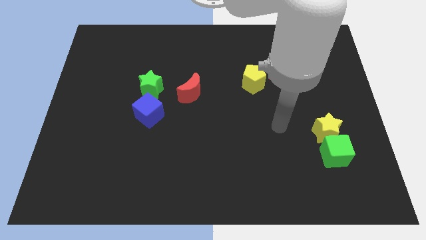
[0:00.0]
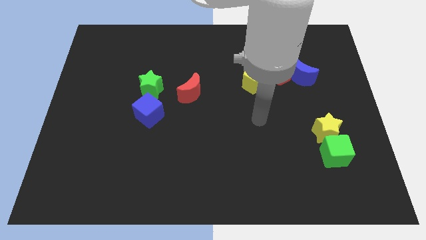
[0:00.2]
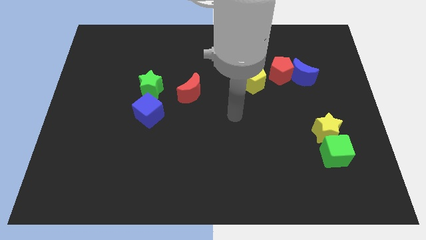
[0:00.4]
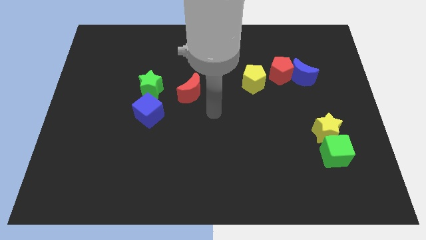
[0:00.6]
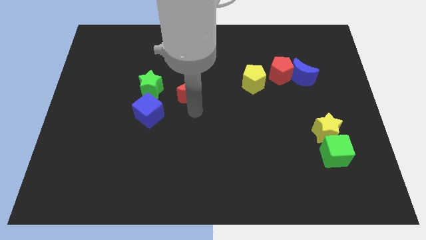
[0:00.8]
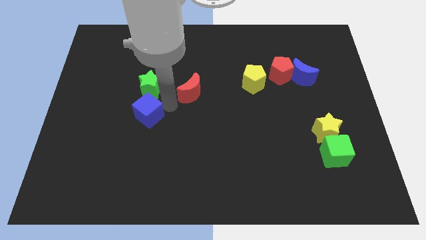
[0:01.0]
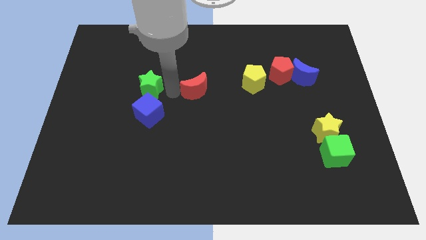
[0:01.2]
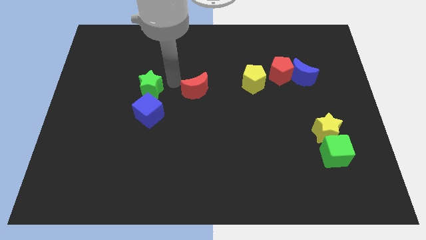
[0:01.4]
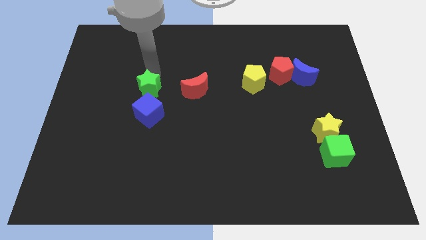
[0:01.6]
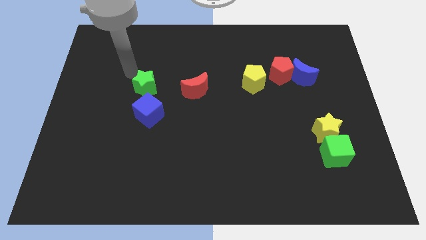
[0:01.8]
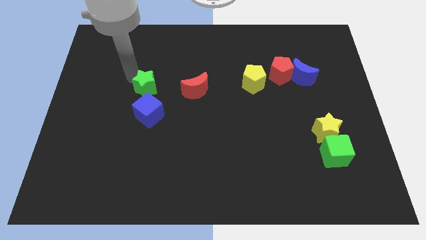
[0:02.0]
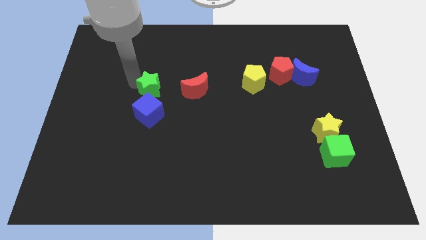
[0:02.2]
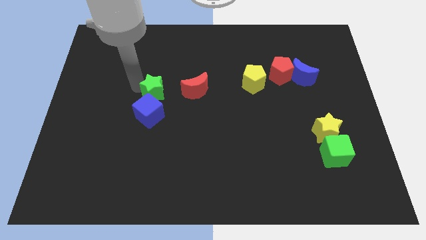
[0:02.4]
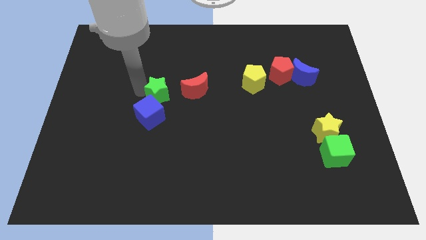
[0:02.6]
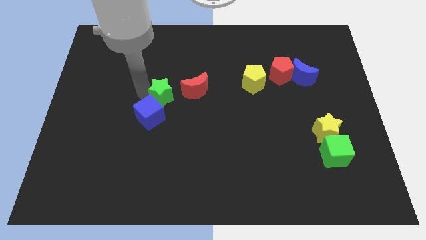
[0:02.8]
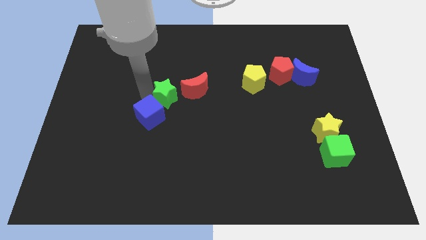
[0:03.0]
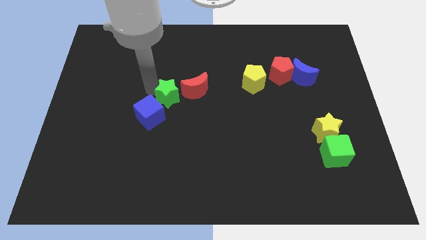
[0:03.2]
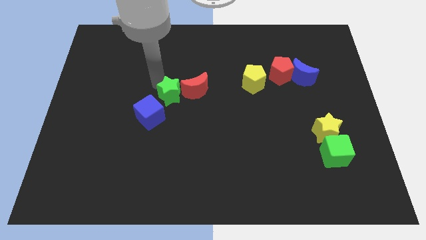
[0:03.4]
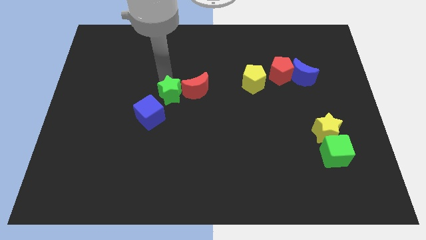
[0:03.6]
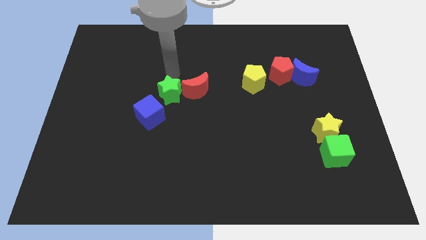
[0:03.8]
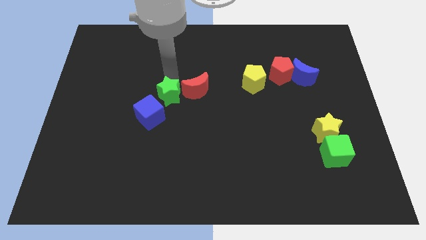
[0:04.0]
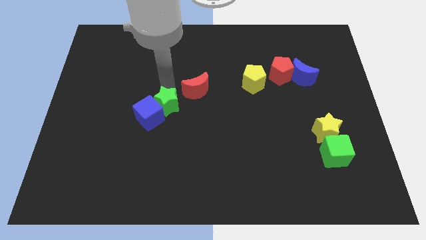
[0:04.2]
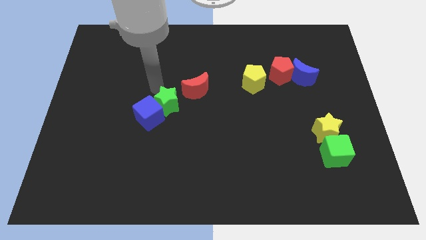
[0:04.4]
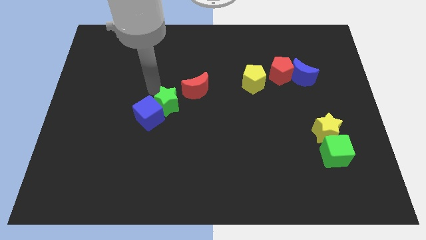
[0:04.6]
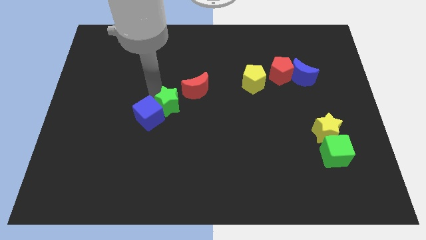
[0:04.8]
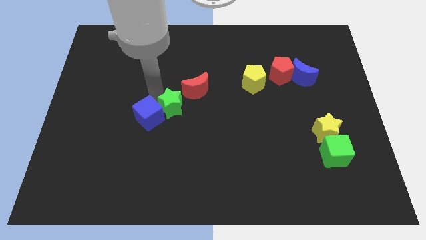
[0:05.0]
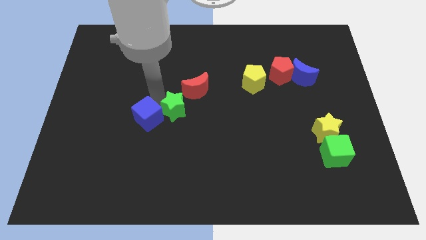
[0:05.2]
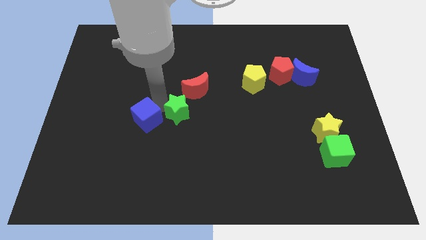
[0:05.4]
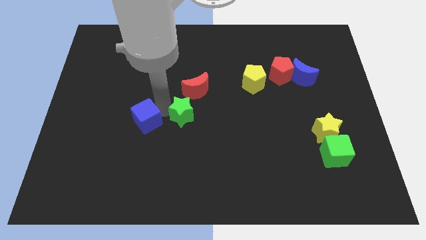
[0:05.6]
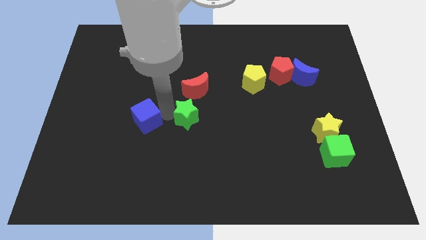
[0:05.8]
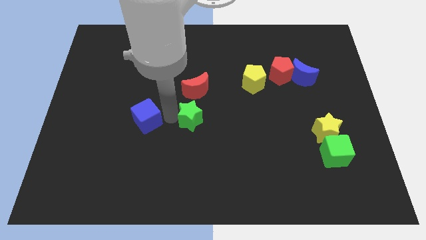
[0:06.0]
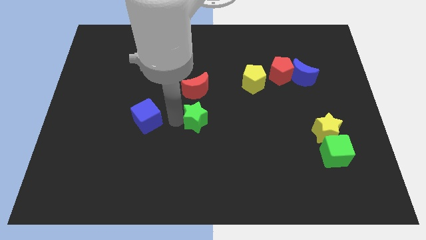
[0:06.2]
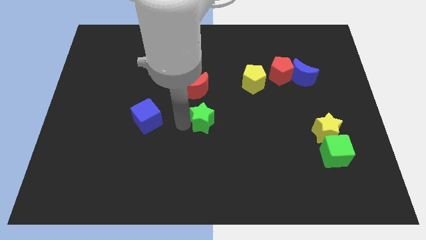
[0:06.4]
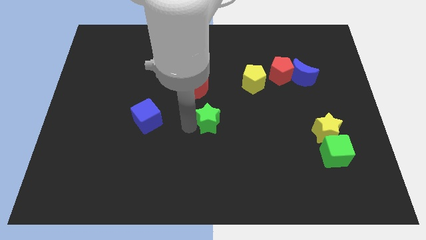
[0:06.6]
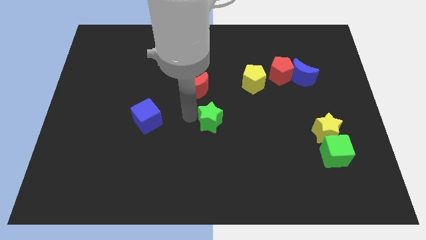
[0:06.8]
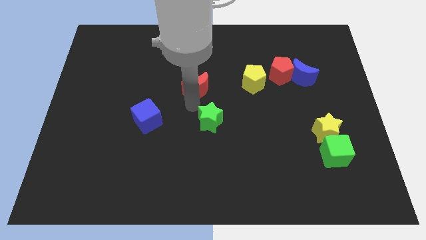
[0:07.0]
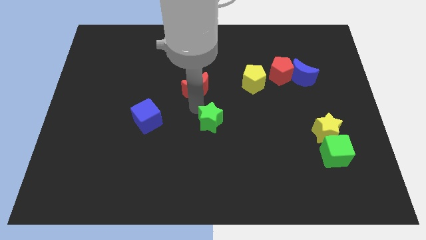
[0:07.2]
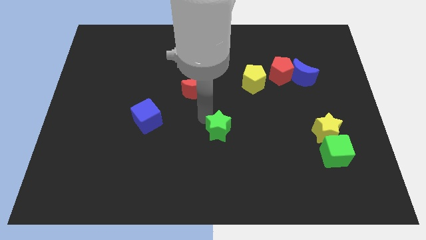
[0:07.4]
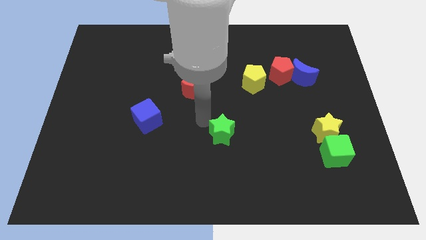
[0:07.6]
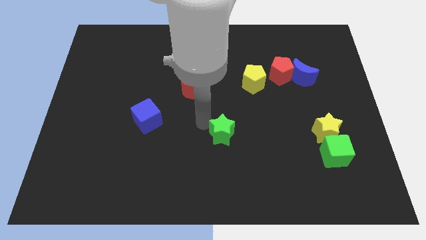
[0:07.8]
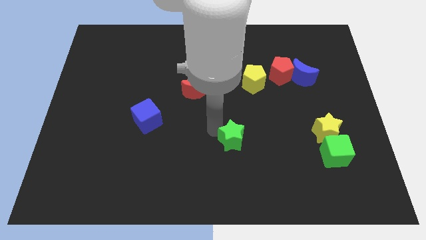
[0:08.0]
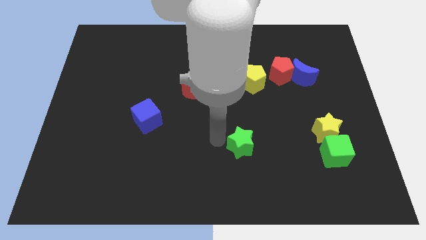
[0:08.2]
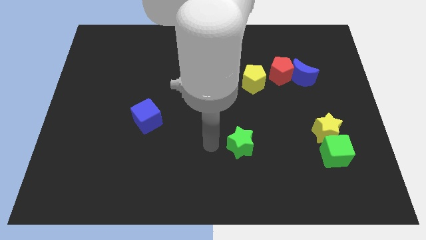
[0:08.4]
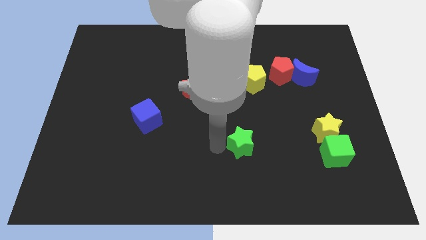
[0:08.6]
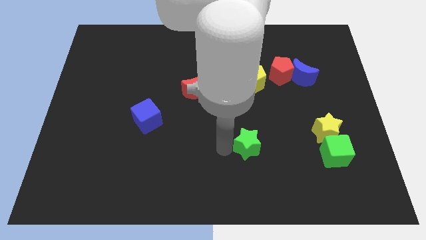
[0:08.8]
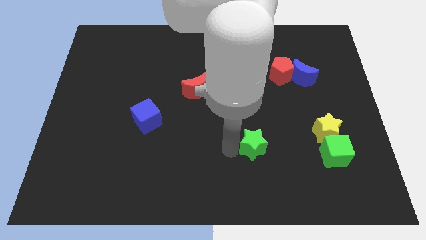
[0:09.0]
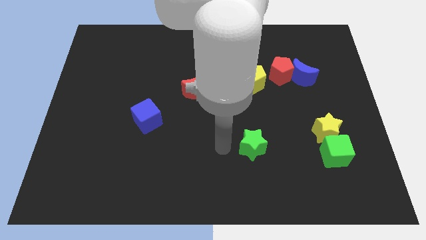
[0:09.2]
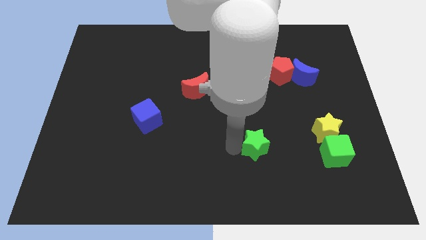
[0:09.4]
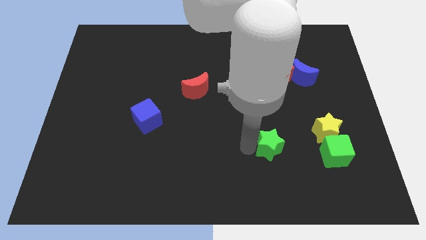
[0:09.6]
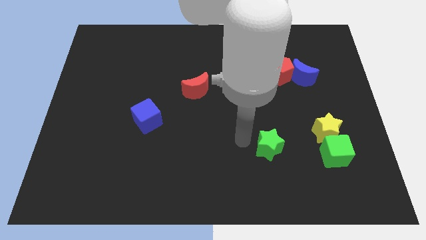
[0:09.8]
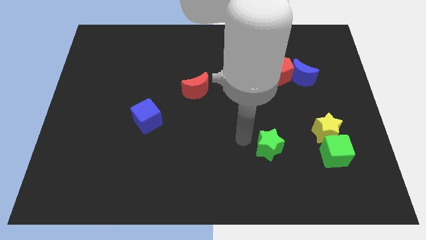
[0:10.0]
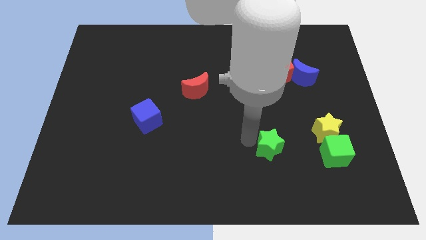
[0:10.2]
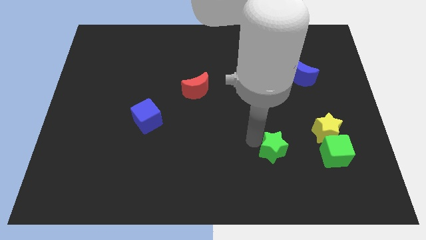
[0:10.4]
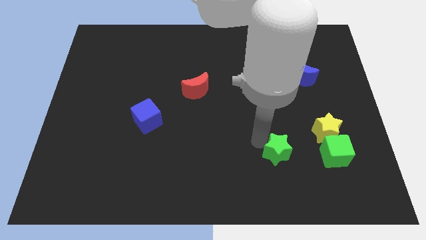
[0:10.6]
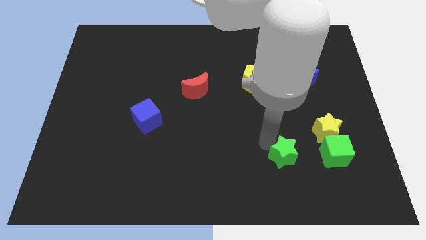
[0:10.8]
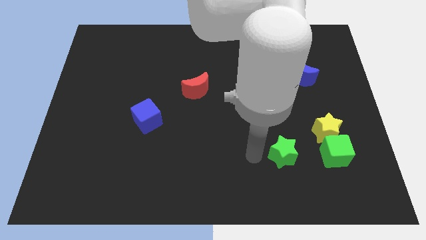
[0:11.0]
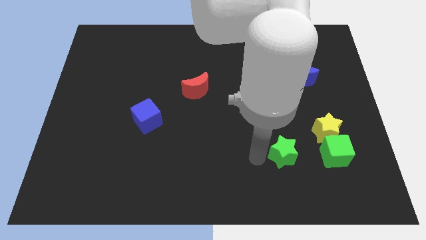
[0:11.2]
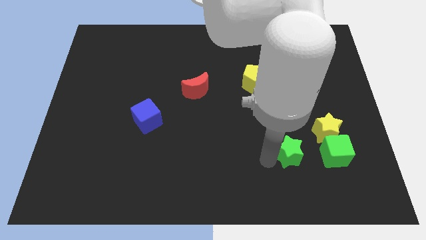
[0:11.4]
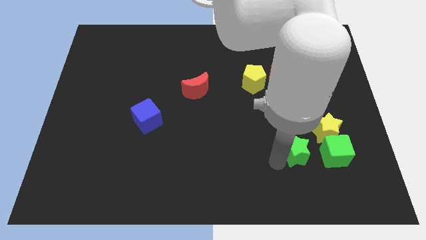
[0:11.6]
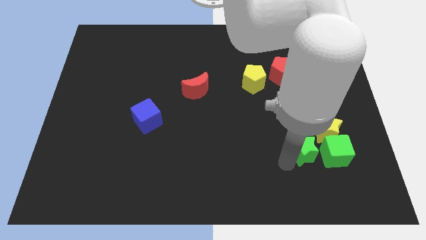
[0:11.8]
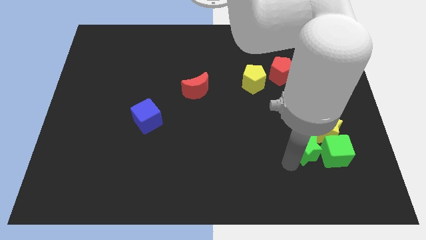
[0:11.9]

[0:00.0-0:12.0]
move the green star towards the green cube

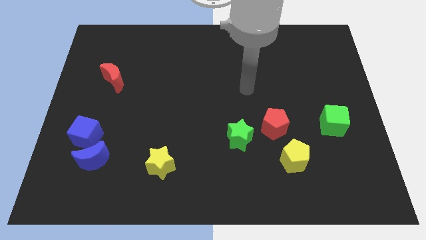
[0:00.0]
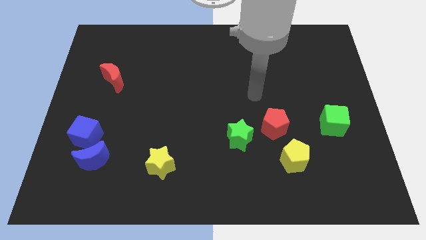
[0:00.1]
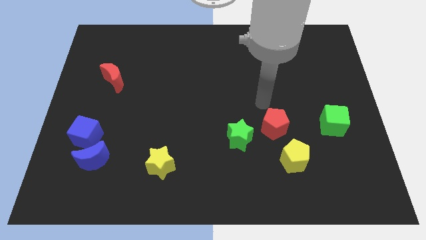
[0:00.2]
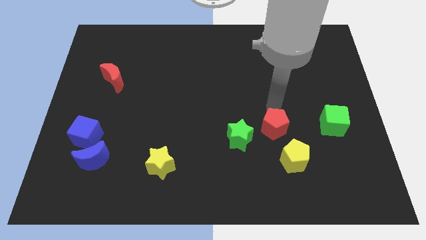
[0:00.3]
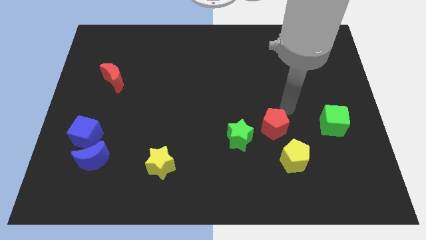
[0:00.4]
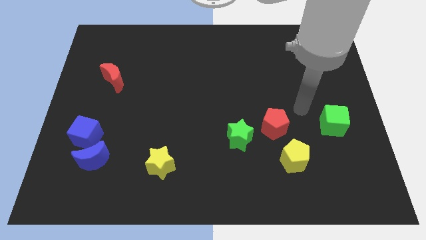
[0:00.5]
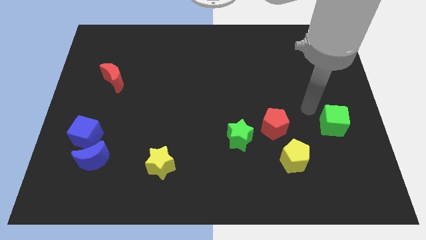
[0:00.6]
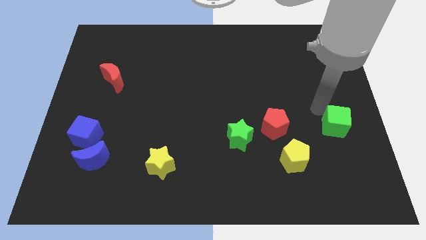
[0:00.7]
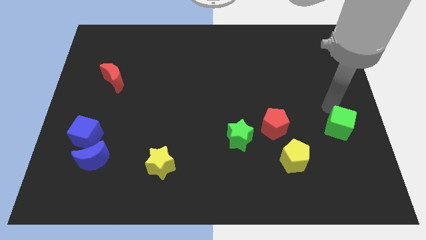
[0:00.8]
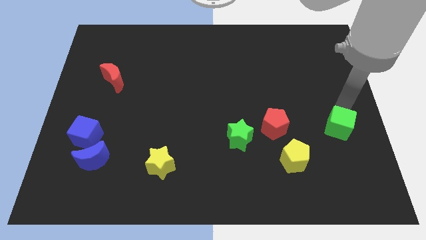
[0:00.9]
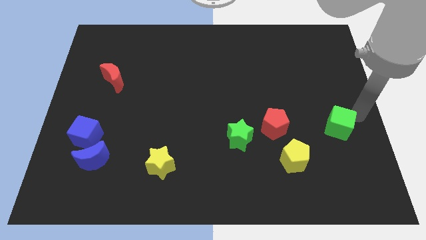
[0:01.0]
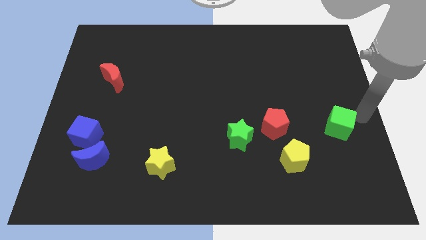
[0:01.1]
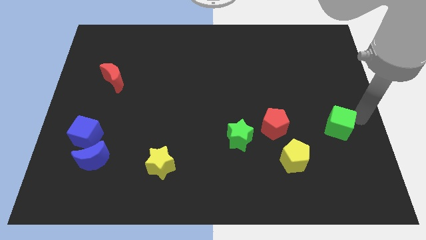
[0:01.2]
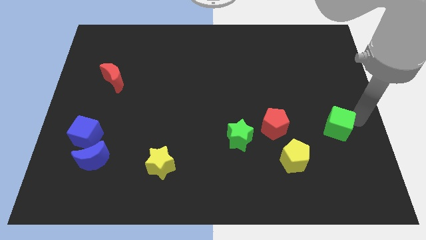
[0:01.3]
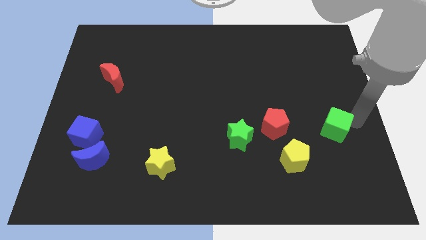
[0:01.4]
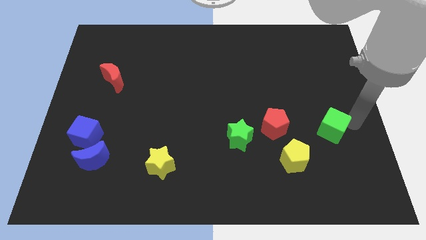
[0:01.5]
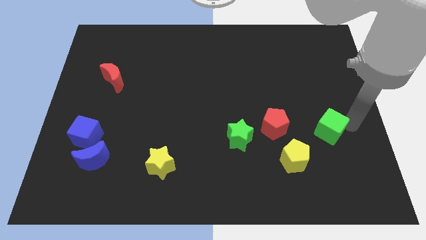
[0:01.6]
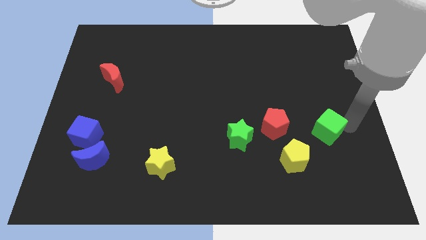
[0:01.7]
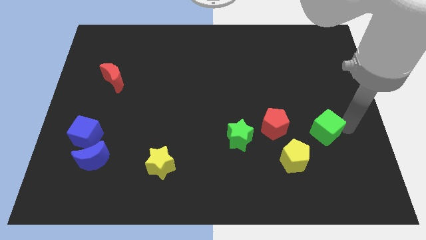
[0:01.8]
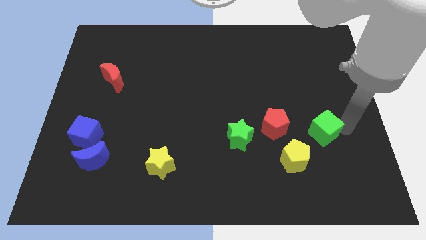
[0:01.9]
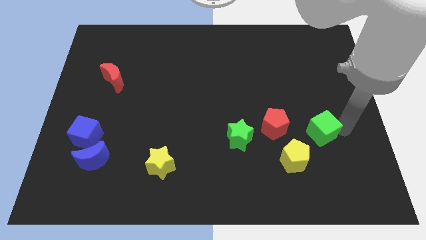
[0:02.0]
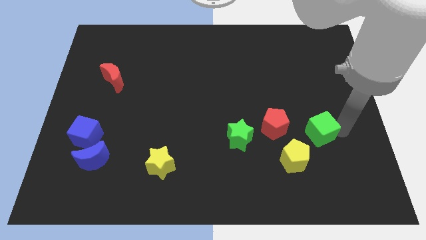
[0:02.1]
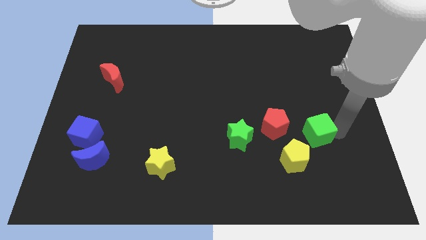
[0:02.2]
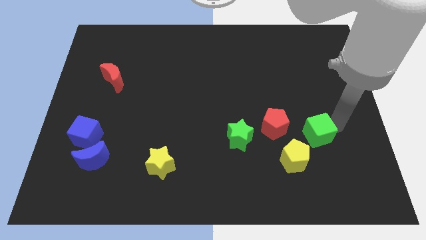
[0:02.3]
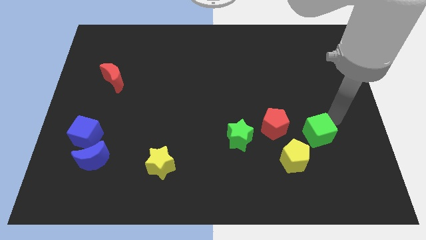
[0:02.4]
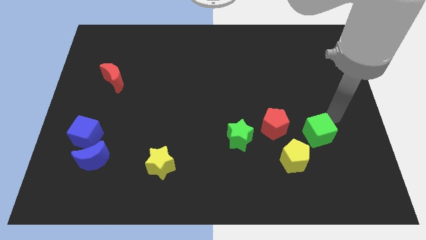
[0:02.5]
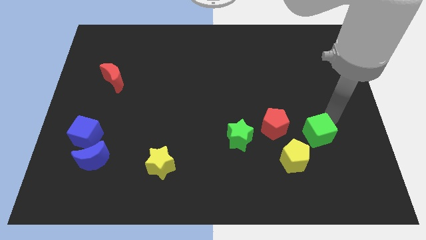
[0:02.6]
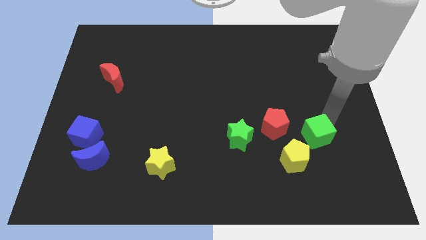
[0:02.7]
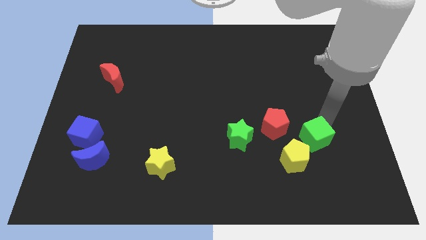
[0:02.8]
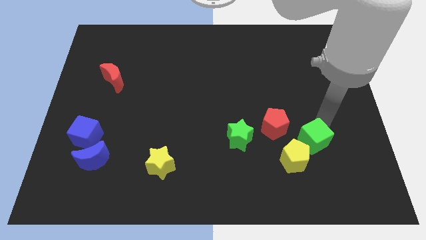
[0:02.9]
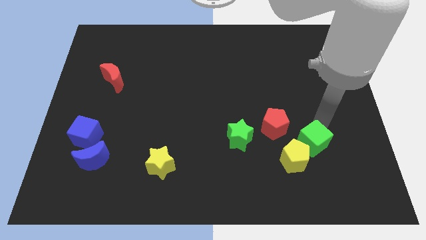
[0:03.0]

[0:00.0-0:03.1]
move the green cube towards the yellow pentagon
